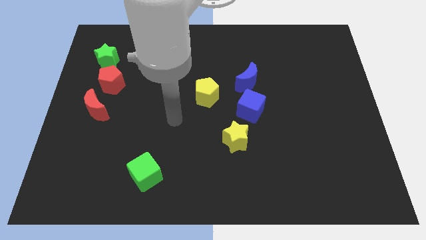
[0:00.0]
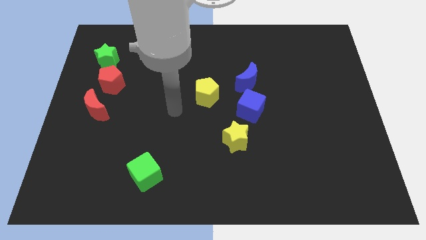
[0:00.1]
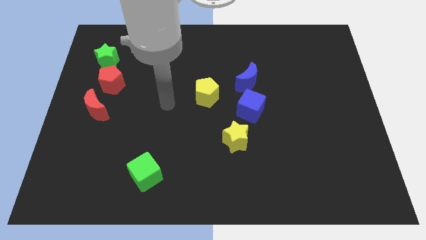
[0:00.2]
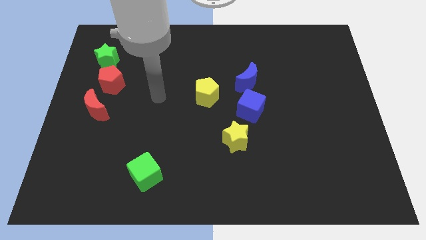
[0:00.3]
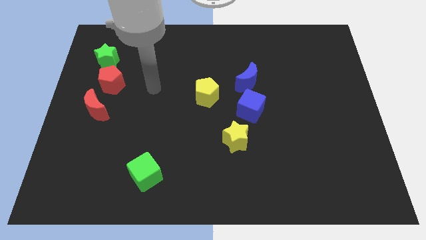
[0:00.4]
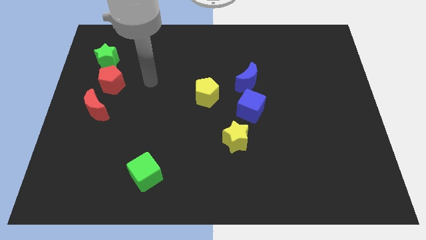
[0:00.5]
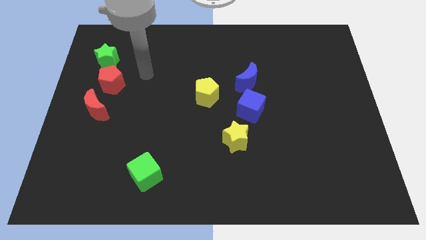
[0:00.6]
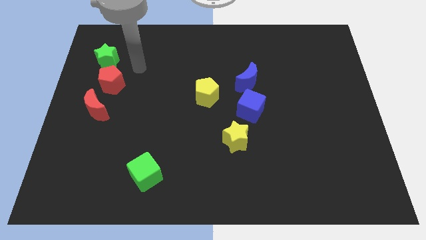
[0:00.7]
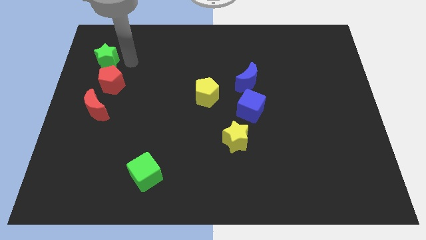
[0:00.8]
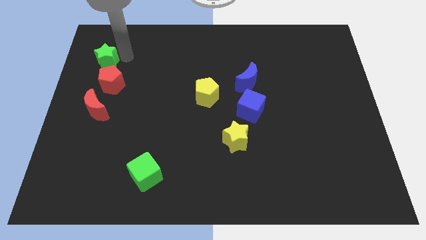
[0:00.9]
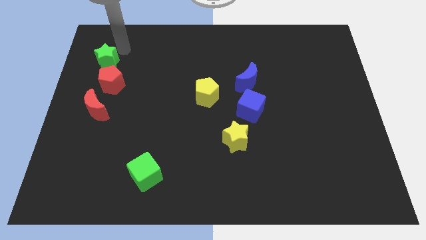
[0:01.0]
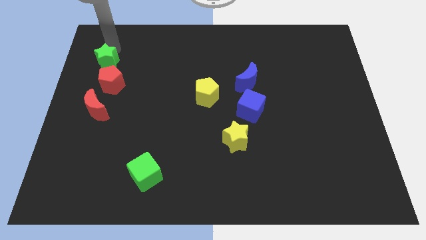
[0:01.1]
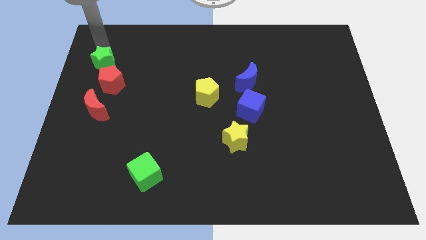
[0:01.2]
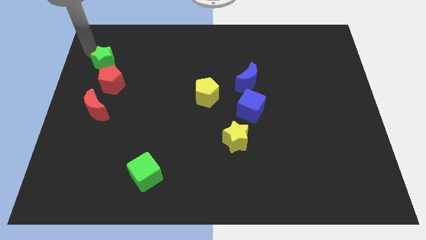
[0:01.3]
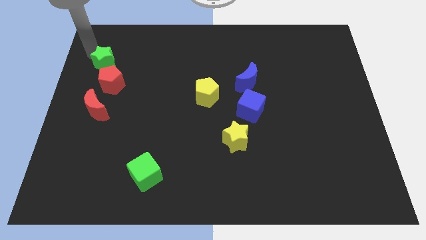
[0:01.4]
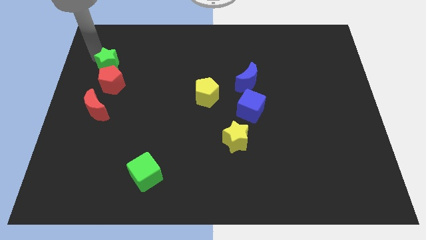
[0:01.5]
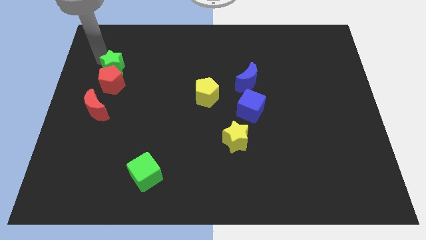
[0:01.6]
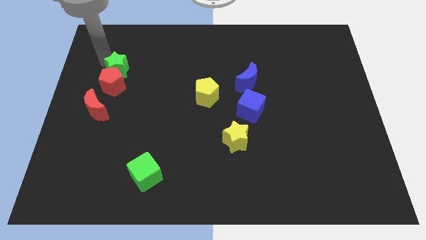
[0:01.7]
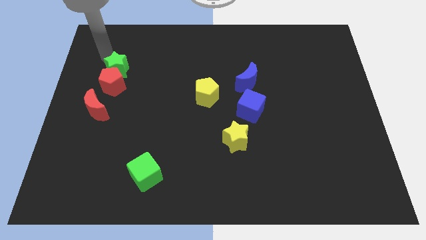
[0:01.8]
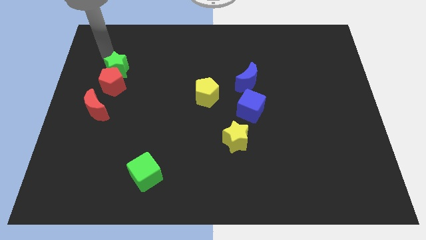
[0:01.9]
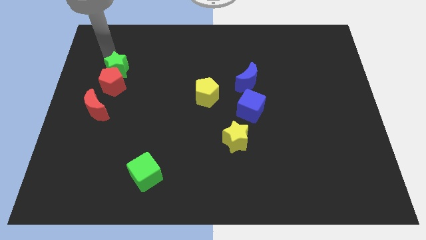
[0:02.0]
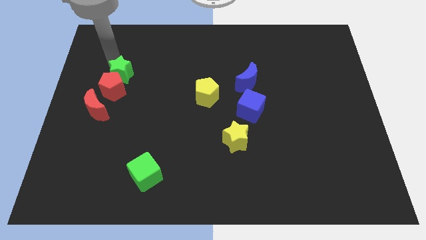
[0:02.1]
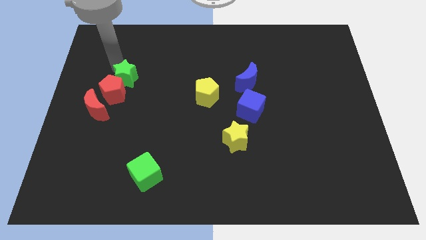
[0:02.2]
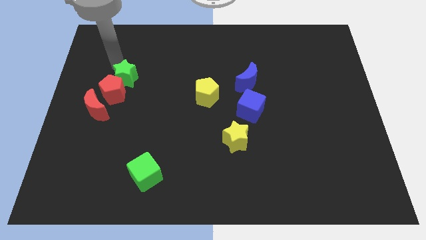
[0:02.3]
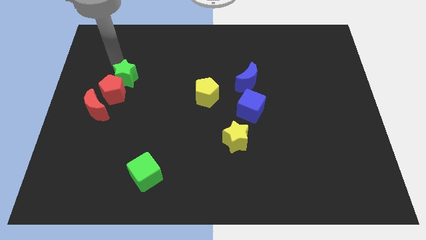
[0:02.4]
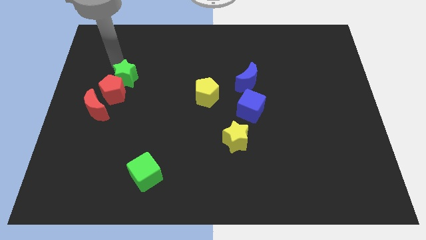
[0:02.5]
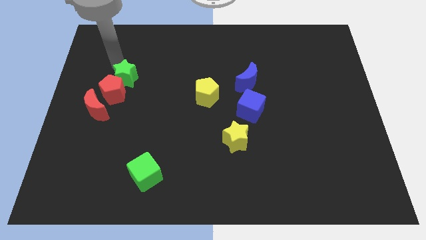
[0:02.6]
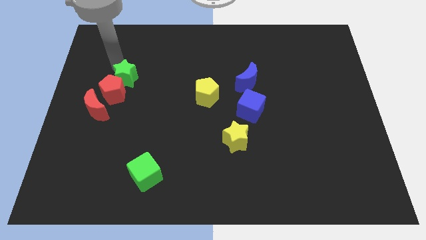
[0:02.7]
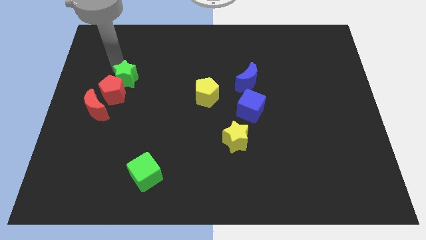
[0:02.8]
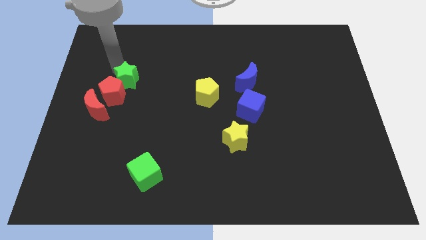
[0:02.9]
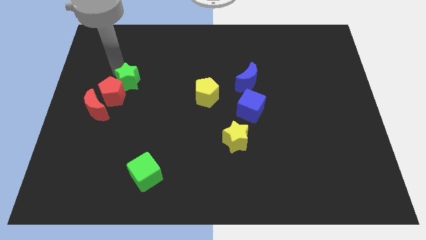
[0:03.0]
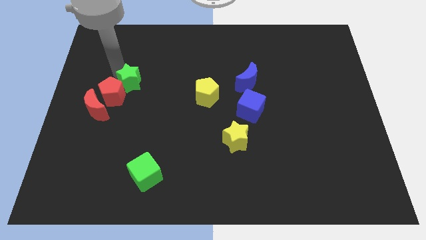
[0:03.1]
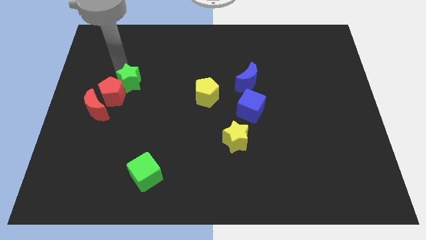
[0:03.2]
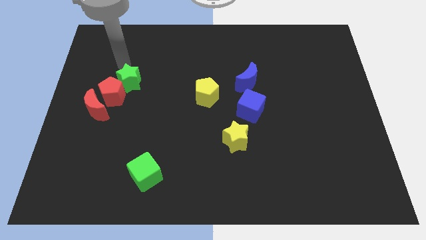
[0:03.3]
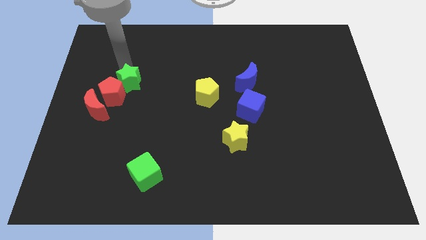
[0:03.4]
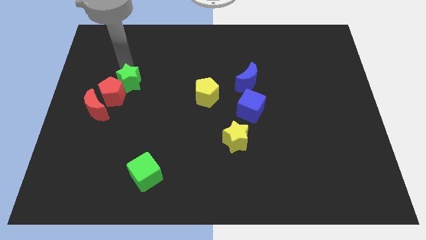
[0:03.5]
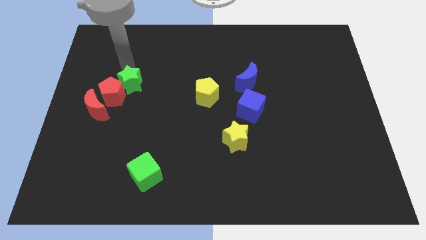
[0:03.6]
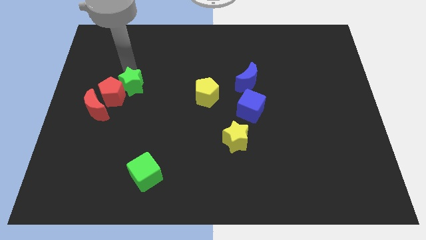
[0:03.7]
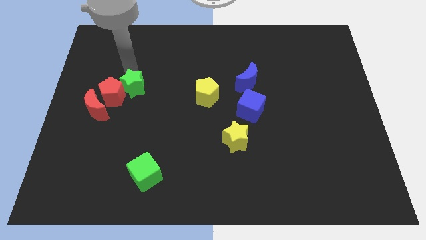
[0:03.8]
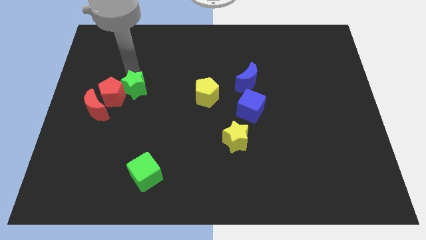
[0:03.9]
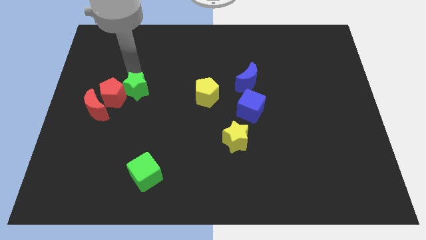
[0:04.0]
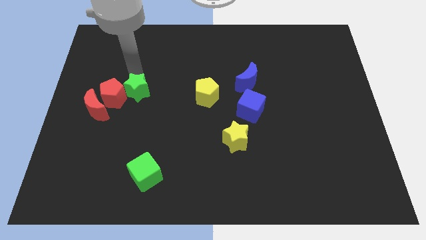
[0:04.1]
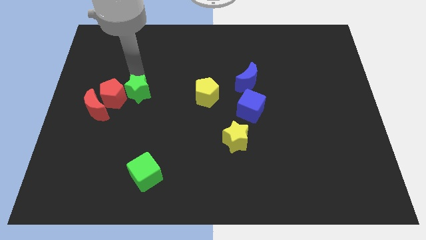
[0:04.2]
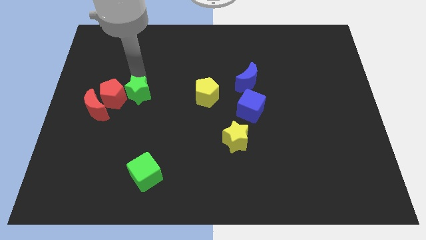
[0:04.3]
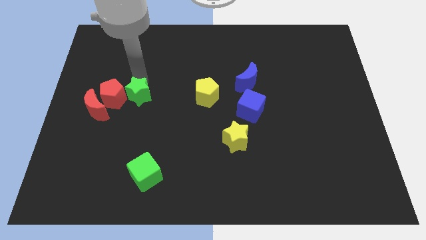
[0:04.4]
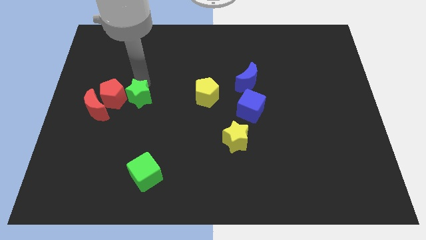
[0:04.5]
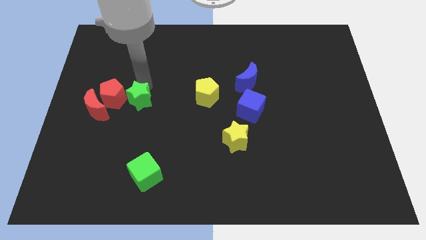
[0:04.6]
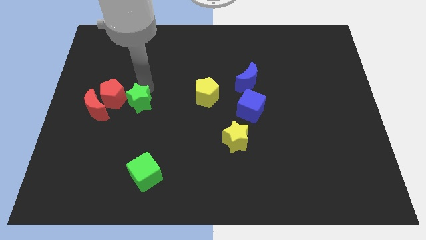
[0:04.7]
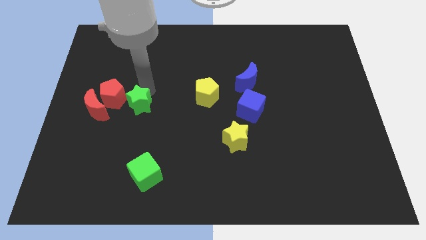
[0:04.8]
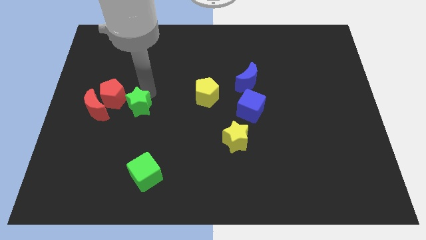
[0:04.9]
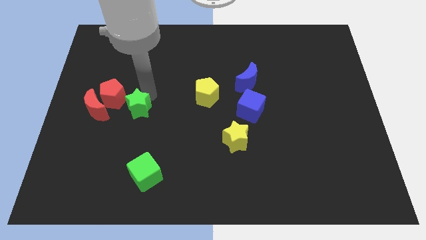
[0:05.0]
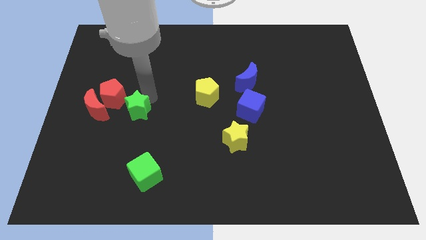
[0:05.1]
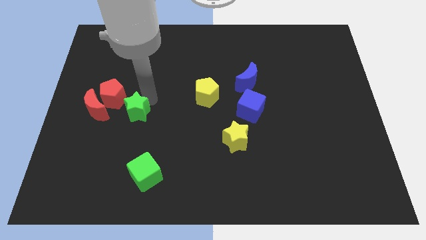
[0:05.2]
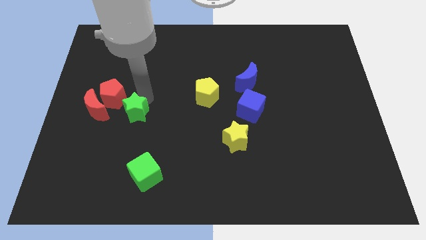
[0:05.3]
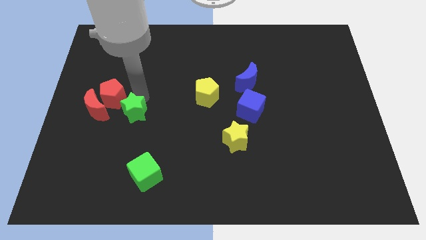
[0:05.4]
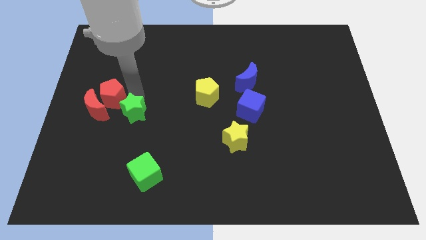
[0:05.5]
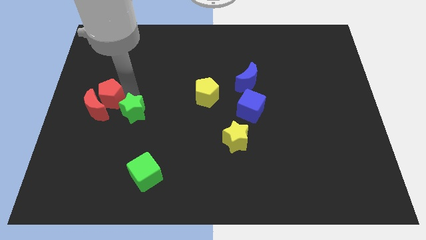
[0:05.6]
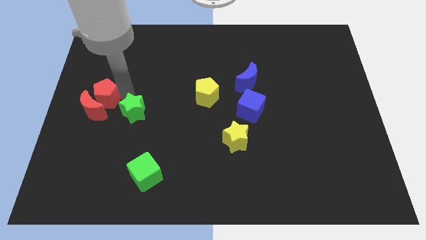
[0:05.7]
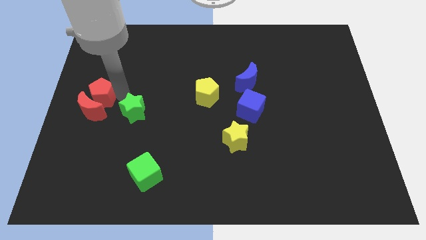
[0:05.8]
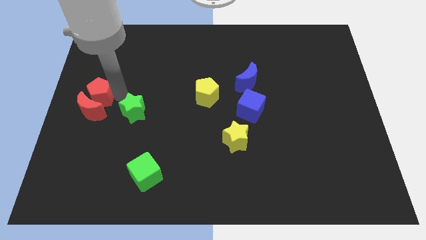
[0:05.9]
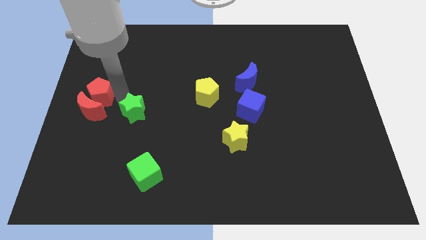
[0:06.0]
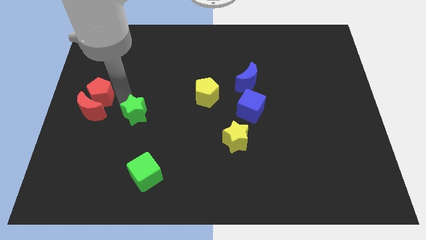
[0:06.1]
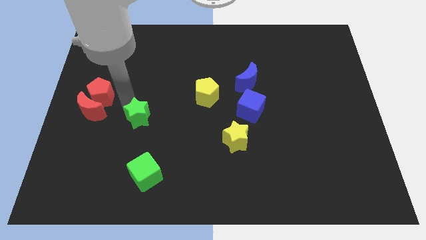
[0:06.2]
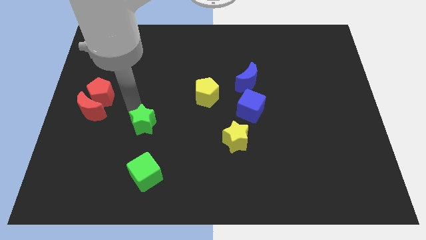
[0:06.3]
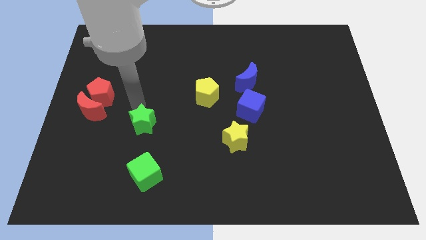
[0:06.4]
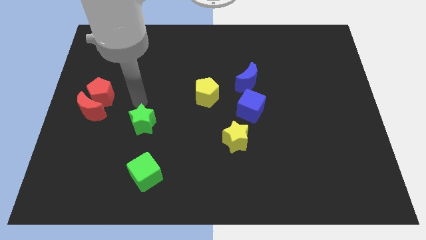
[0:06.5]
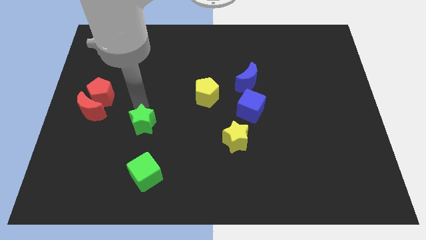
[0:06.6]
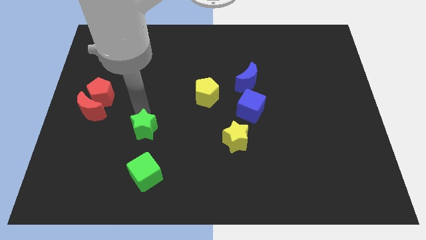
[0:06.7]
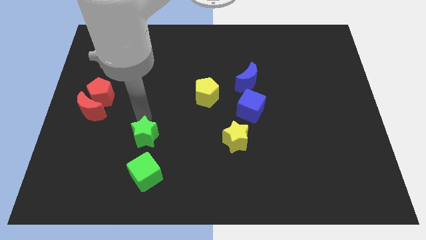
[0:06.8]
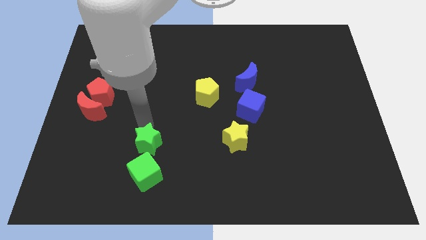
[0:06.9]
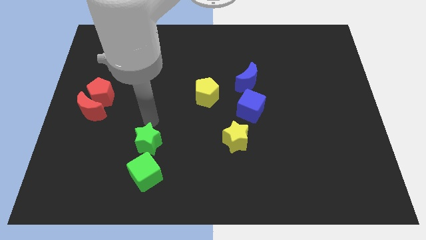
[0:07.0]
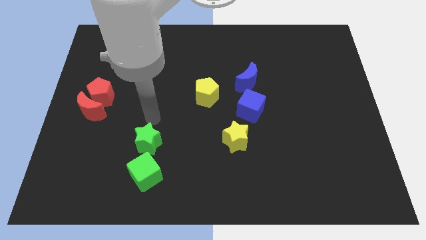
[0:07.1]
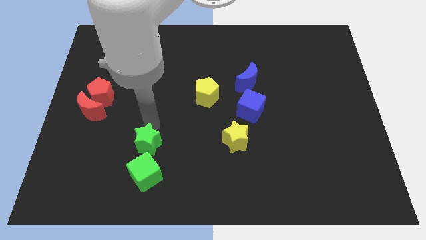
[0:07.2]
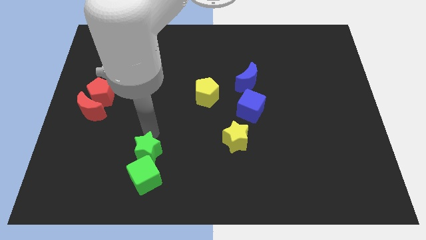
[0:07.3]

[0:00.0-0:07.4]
push the green star to the green cube

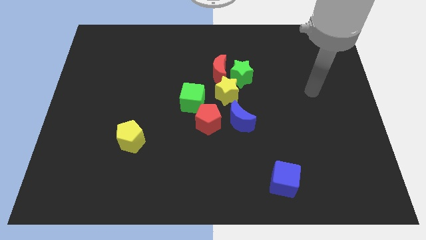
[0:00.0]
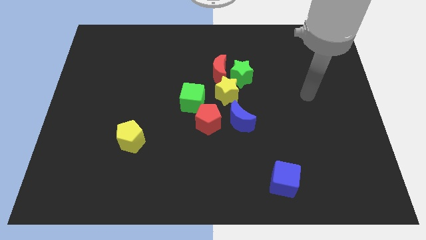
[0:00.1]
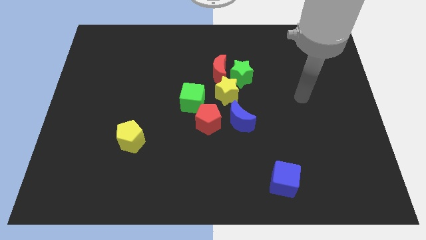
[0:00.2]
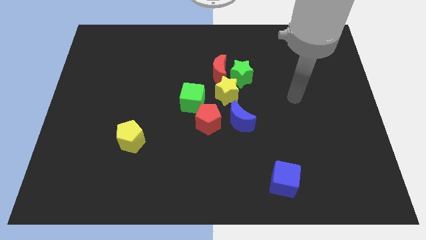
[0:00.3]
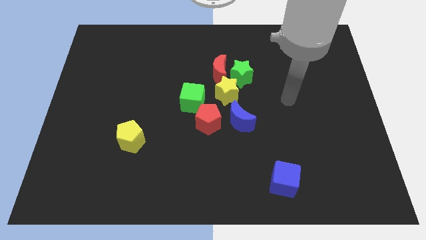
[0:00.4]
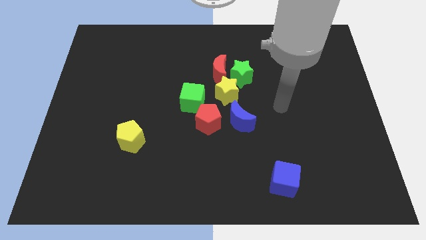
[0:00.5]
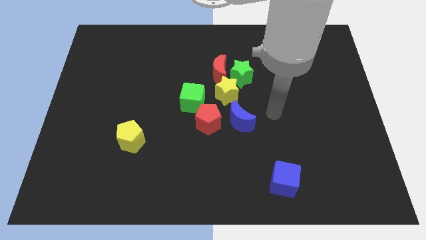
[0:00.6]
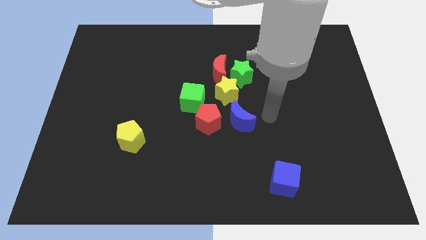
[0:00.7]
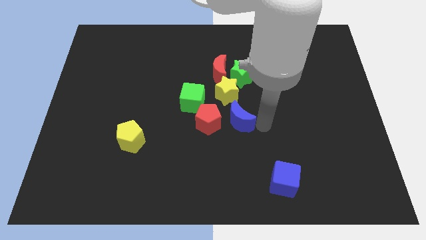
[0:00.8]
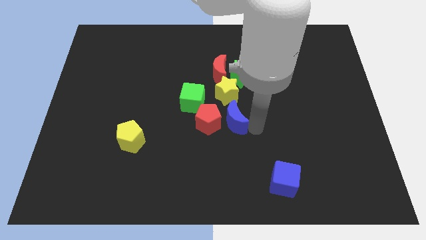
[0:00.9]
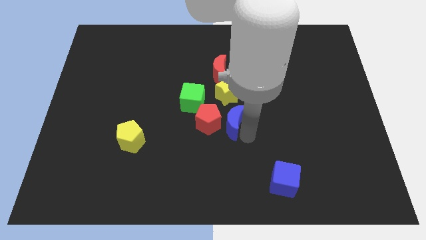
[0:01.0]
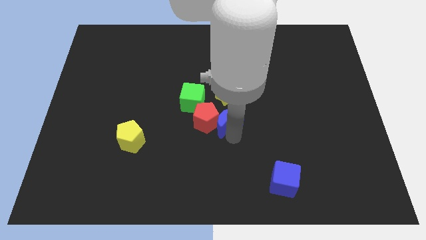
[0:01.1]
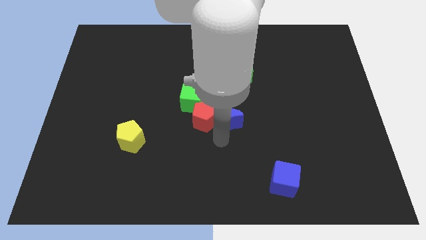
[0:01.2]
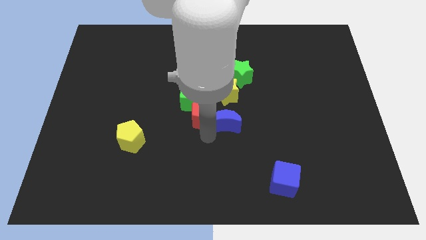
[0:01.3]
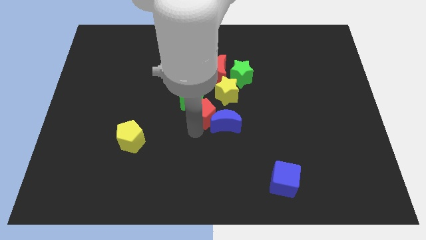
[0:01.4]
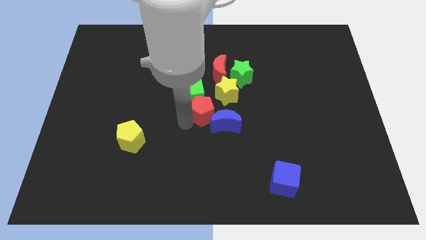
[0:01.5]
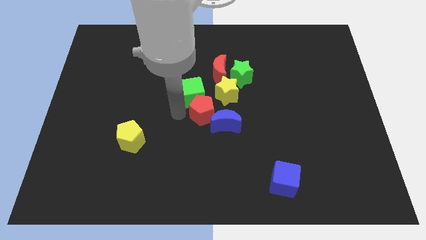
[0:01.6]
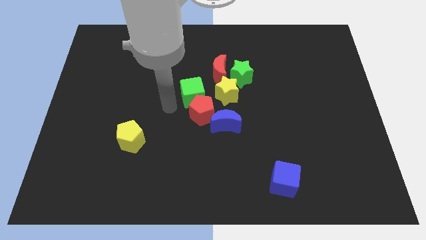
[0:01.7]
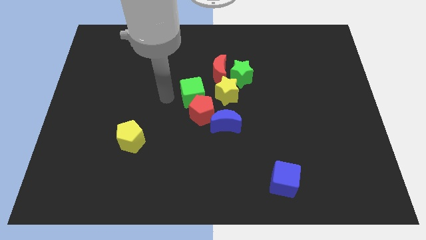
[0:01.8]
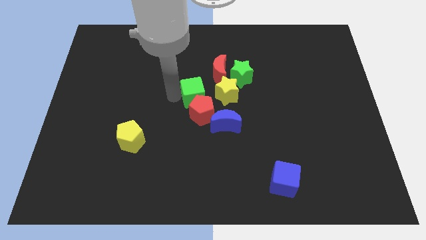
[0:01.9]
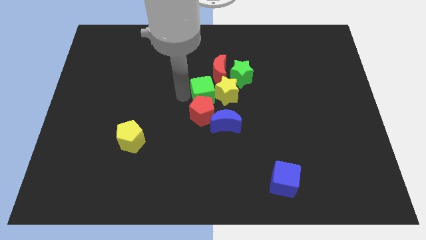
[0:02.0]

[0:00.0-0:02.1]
put the green cube towards the yellow star
